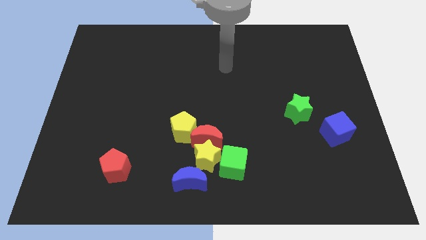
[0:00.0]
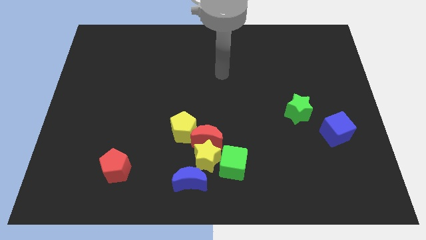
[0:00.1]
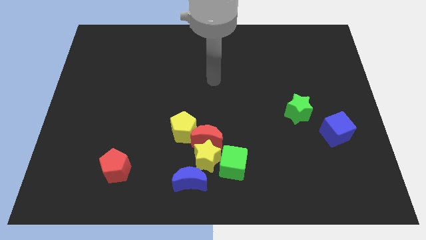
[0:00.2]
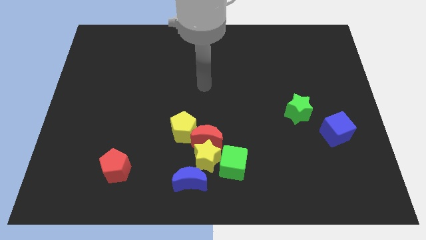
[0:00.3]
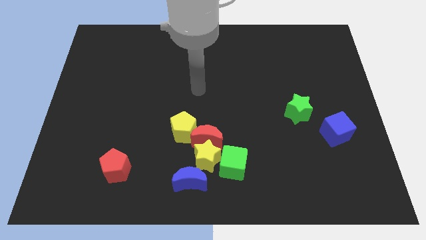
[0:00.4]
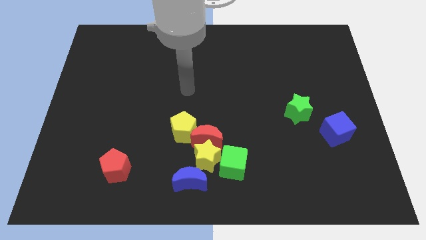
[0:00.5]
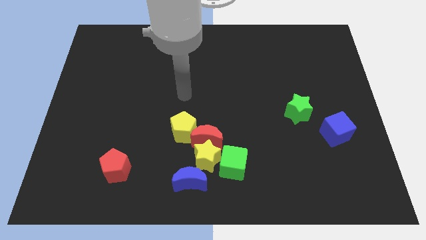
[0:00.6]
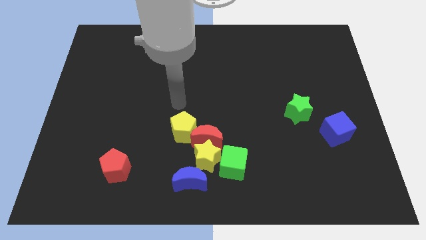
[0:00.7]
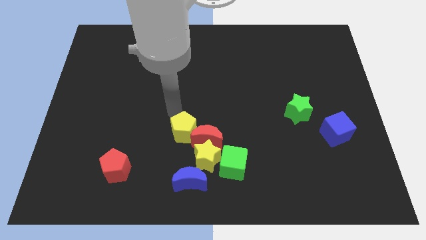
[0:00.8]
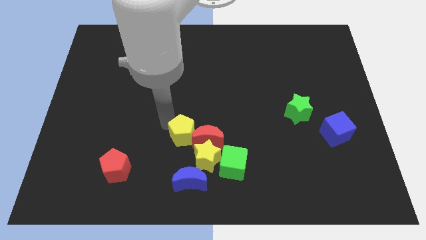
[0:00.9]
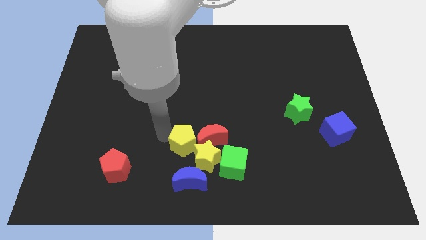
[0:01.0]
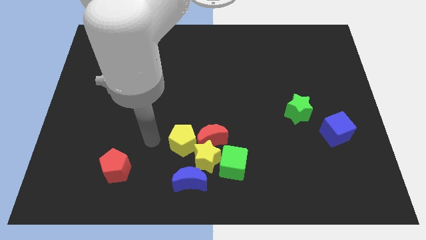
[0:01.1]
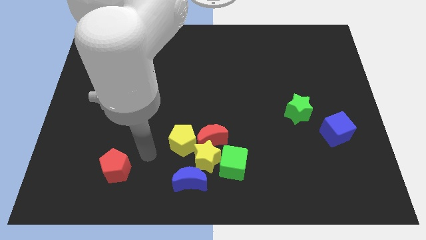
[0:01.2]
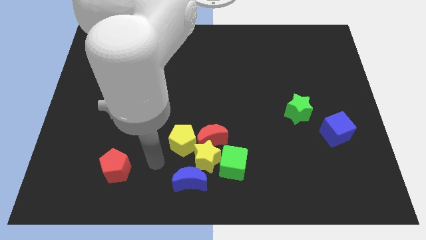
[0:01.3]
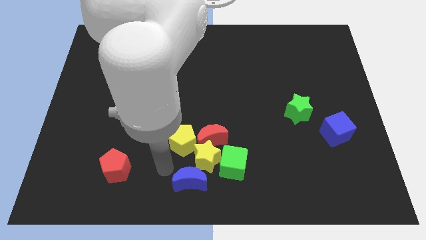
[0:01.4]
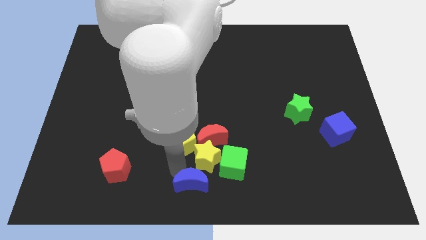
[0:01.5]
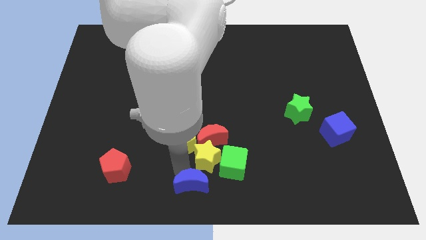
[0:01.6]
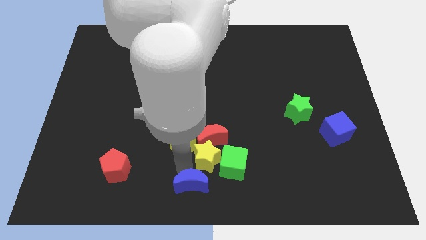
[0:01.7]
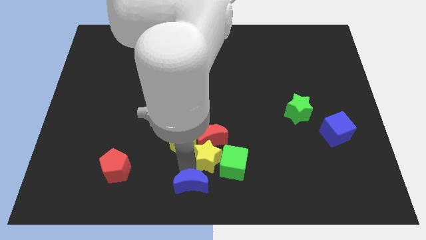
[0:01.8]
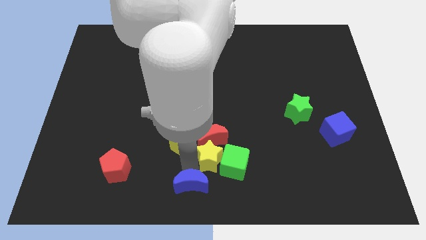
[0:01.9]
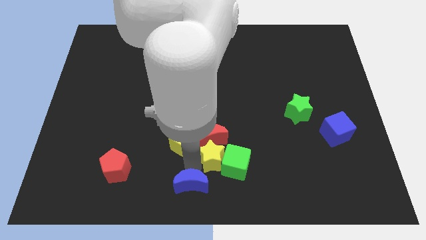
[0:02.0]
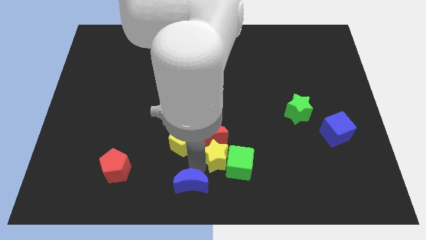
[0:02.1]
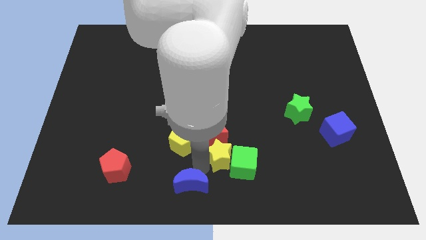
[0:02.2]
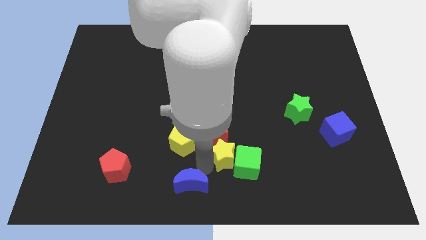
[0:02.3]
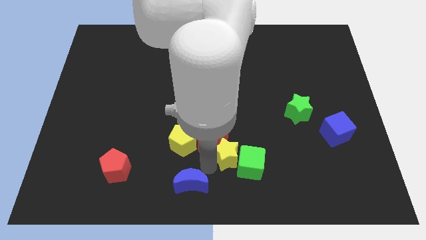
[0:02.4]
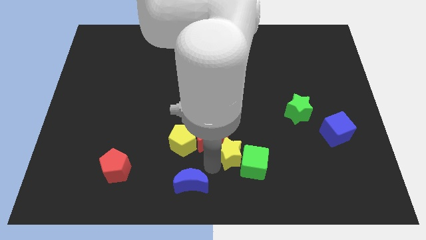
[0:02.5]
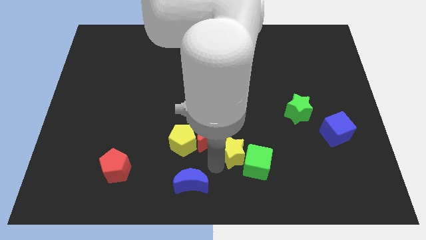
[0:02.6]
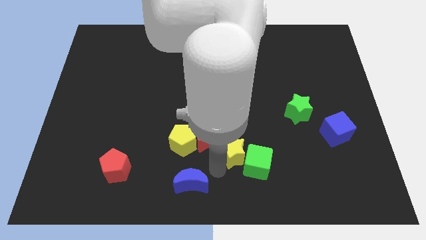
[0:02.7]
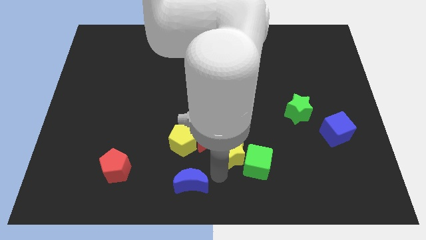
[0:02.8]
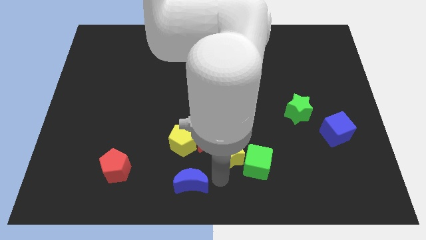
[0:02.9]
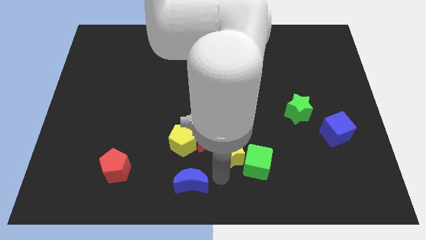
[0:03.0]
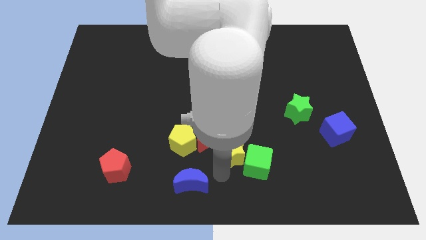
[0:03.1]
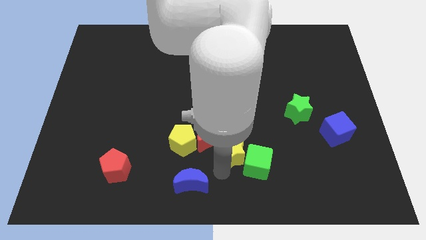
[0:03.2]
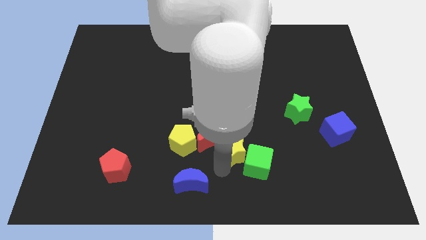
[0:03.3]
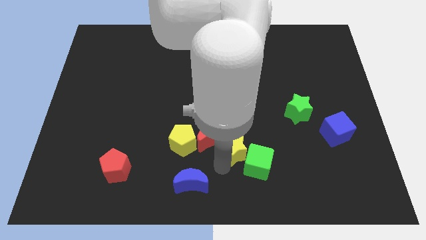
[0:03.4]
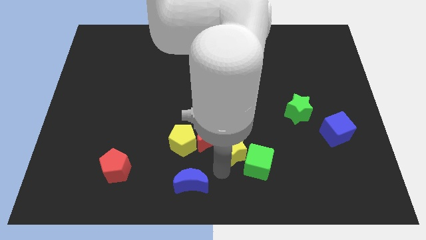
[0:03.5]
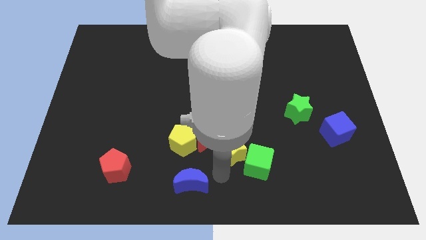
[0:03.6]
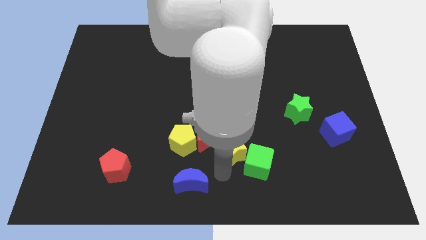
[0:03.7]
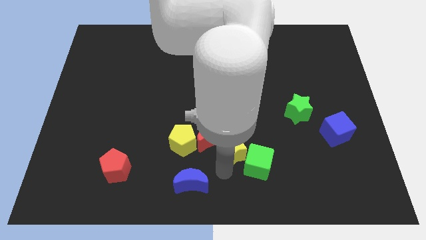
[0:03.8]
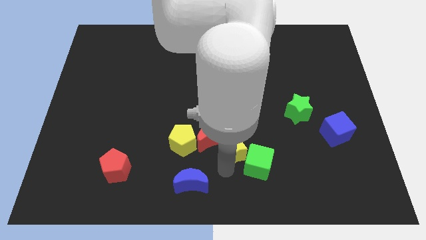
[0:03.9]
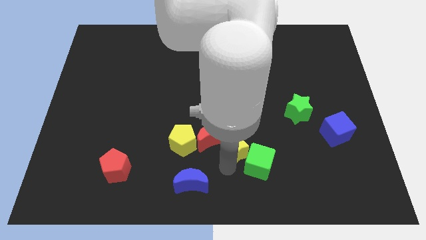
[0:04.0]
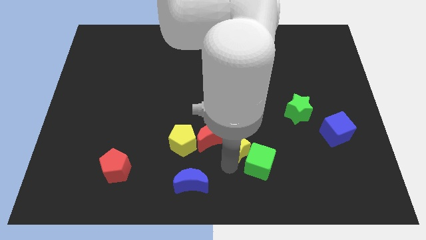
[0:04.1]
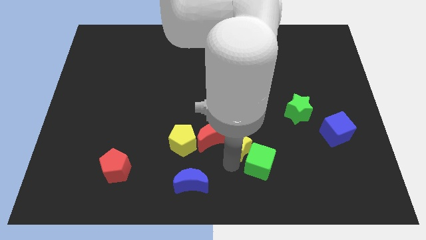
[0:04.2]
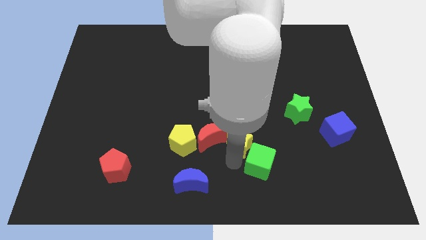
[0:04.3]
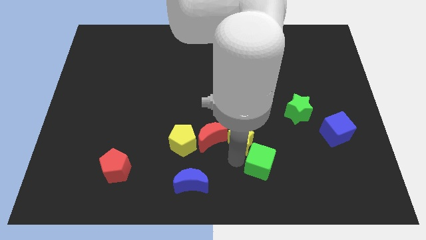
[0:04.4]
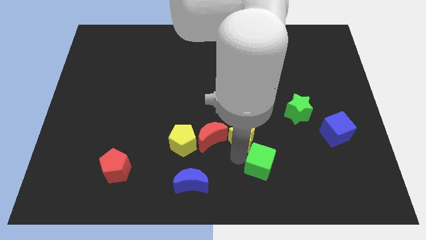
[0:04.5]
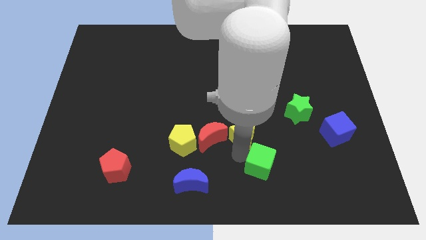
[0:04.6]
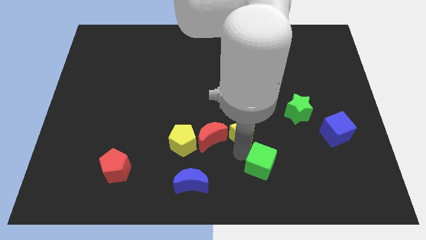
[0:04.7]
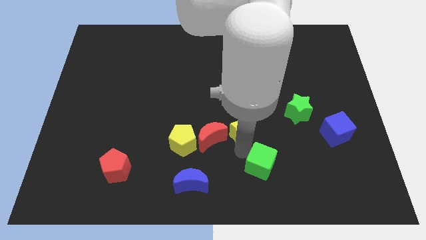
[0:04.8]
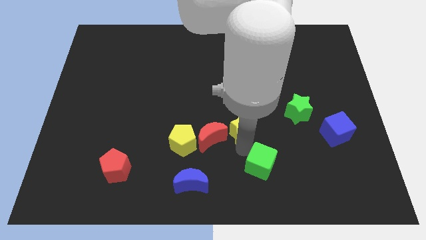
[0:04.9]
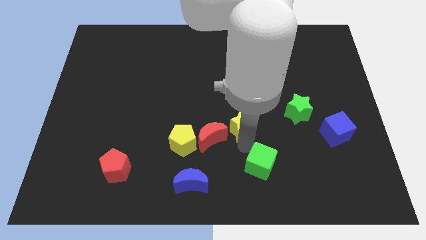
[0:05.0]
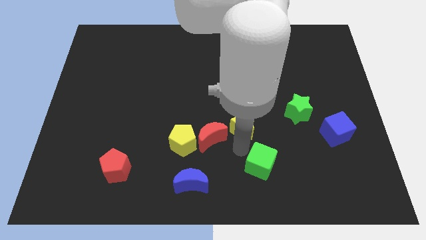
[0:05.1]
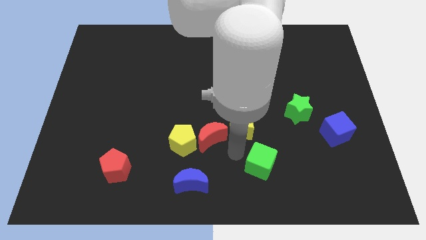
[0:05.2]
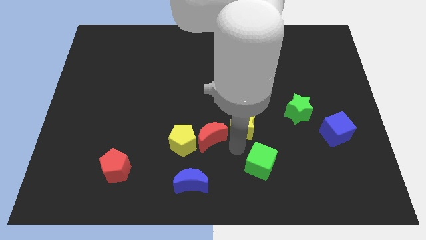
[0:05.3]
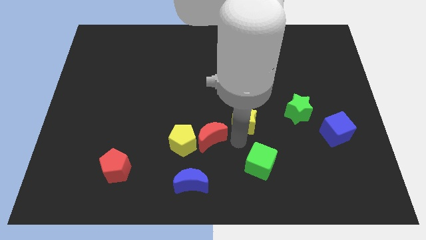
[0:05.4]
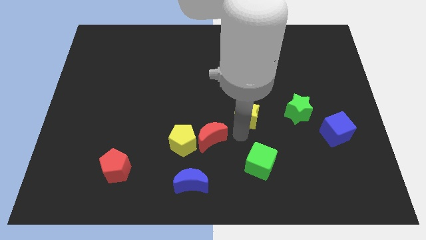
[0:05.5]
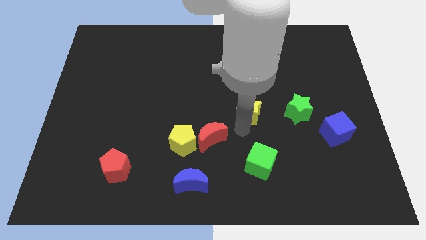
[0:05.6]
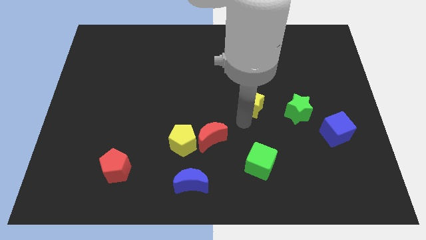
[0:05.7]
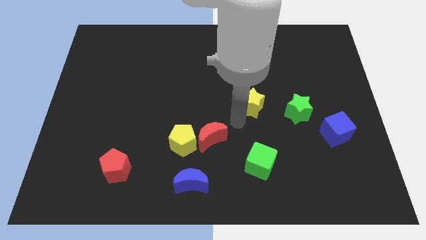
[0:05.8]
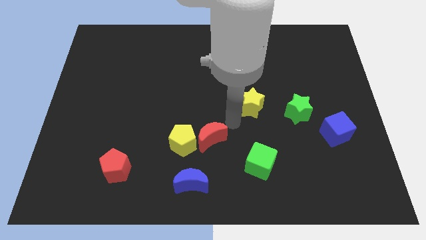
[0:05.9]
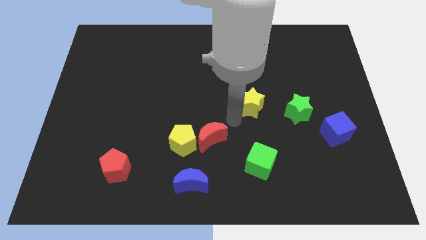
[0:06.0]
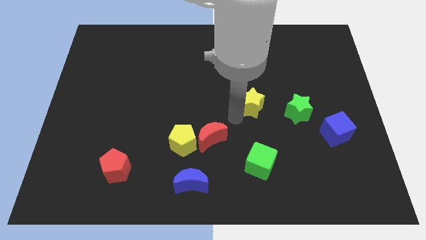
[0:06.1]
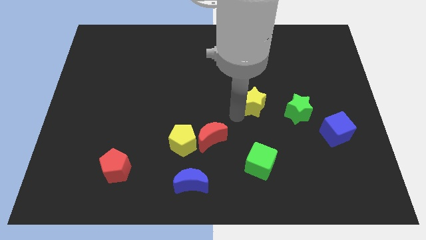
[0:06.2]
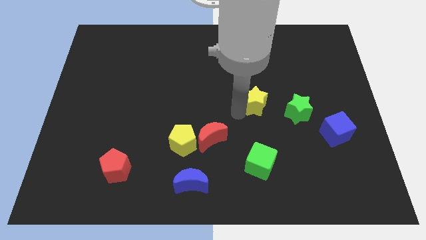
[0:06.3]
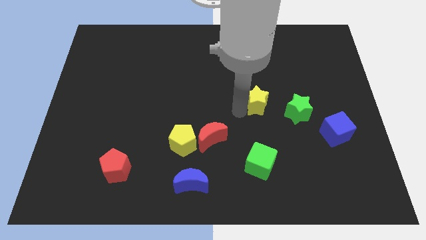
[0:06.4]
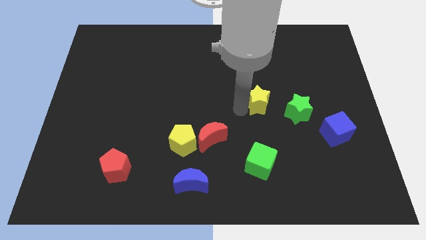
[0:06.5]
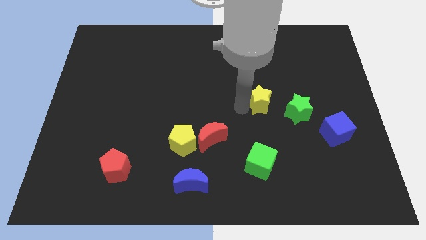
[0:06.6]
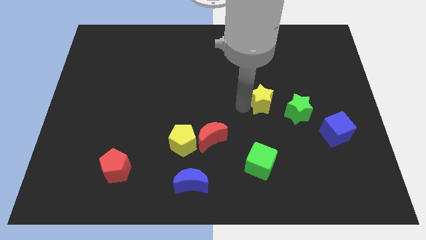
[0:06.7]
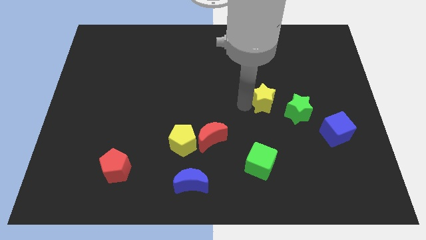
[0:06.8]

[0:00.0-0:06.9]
move the yellow star diagonally upwards and to the right

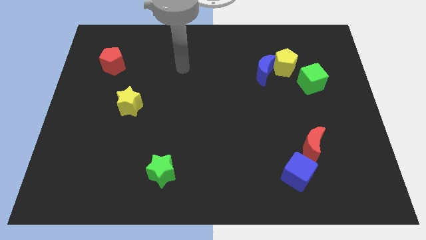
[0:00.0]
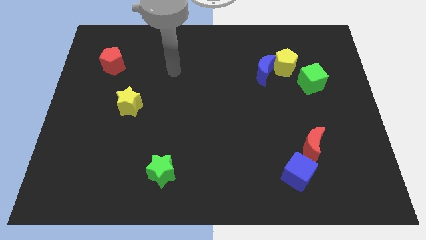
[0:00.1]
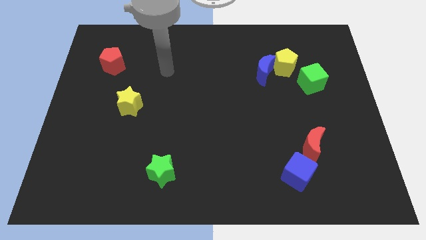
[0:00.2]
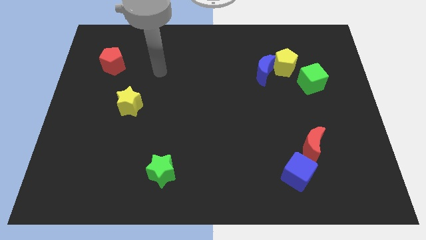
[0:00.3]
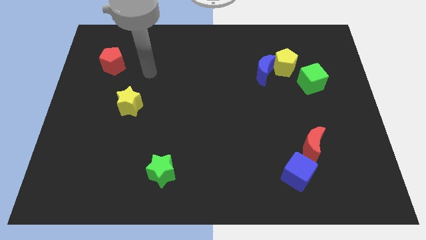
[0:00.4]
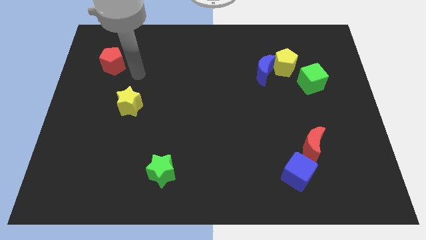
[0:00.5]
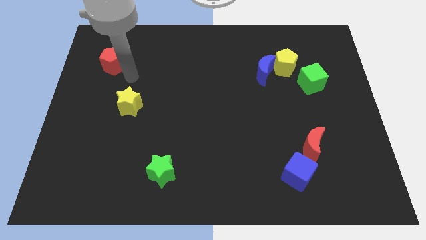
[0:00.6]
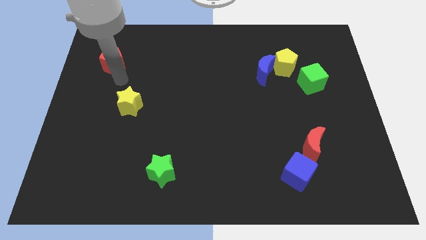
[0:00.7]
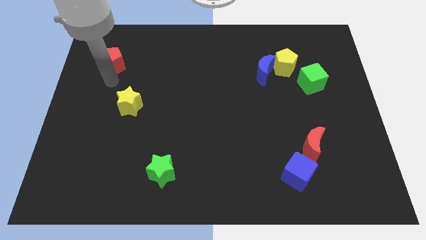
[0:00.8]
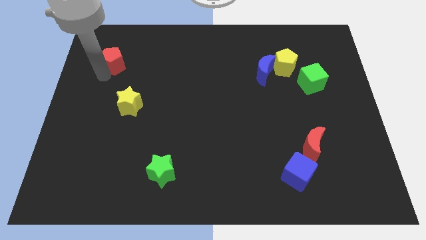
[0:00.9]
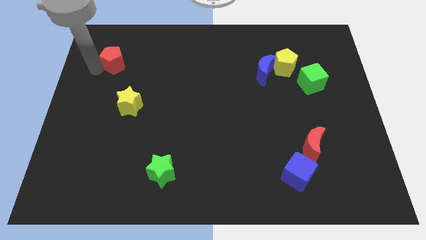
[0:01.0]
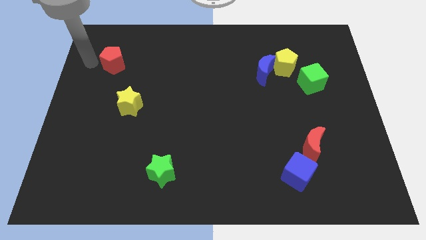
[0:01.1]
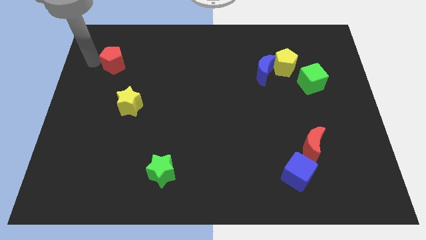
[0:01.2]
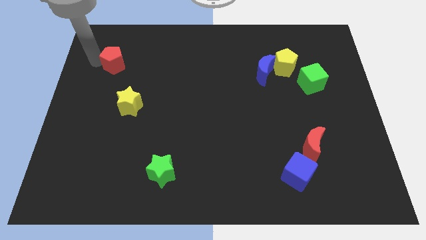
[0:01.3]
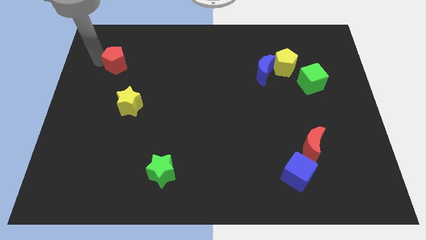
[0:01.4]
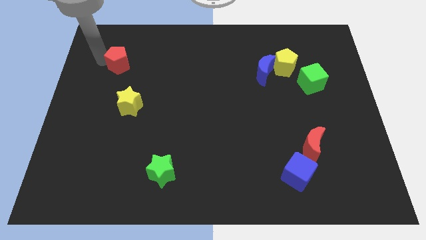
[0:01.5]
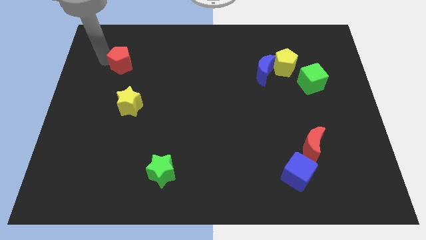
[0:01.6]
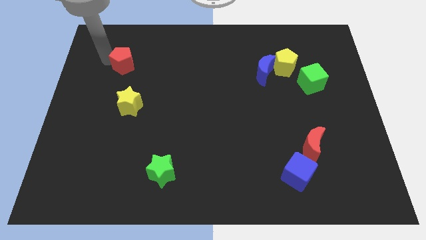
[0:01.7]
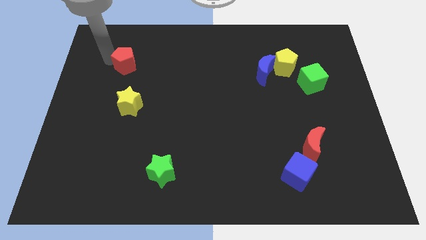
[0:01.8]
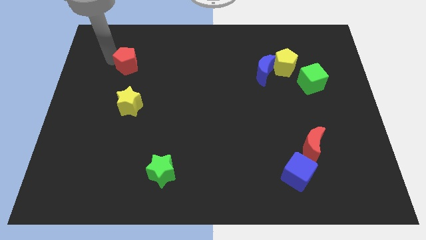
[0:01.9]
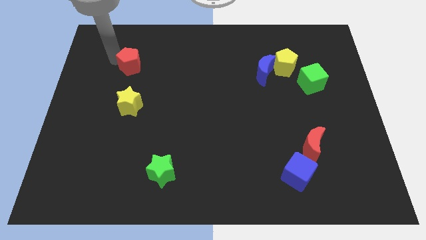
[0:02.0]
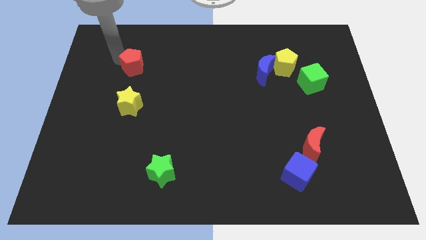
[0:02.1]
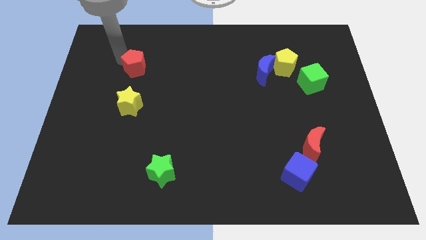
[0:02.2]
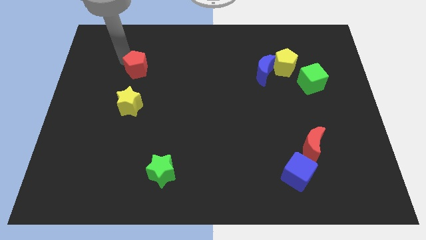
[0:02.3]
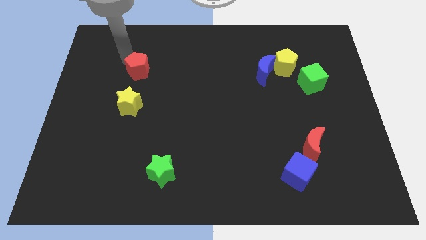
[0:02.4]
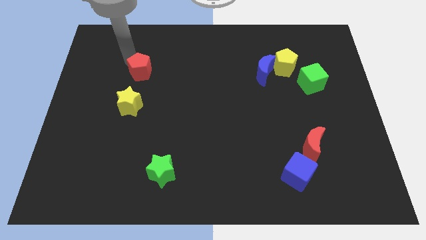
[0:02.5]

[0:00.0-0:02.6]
slide the red pentagon slightly right
